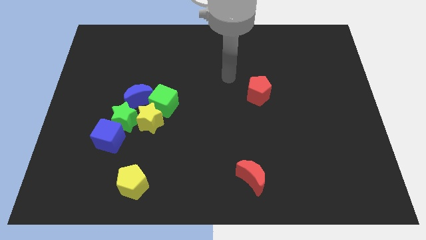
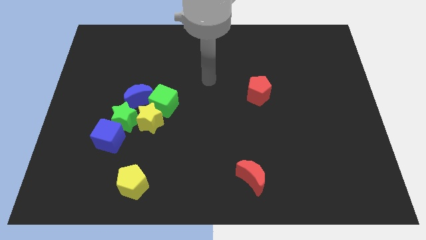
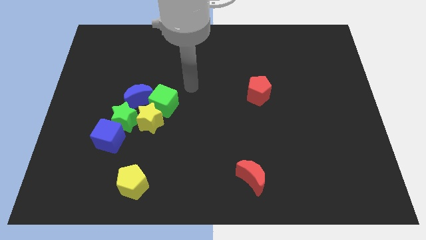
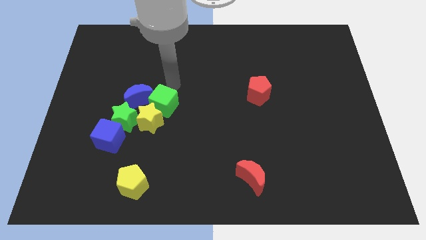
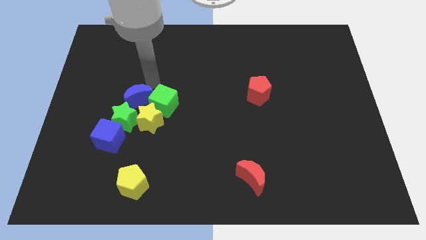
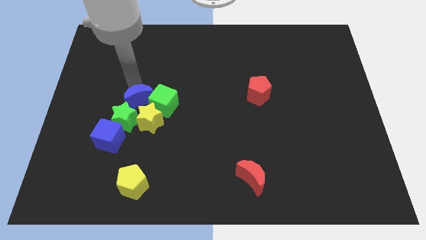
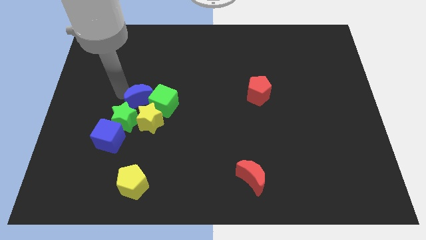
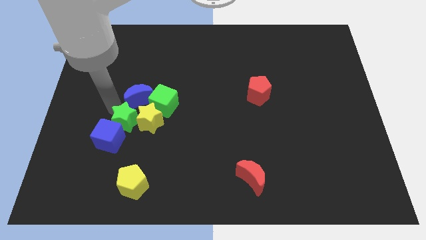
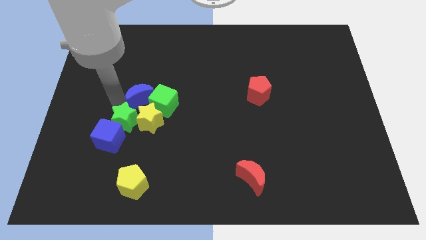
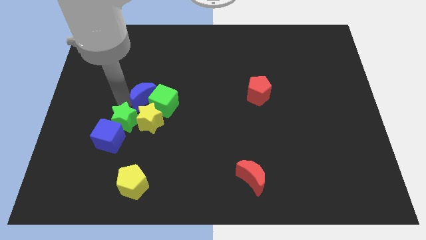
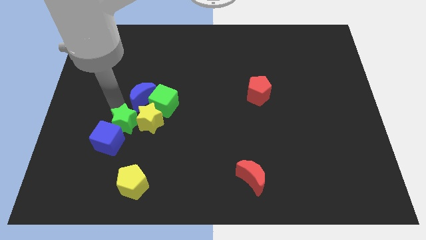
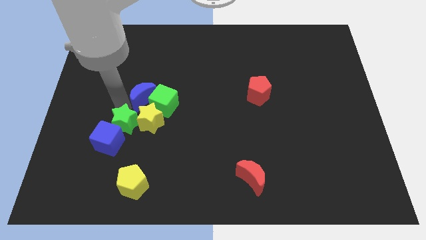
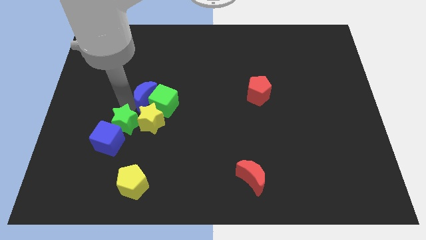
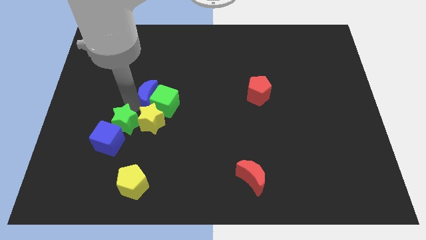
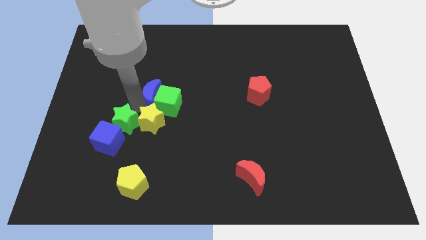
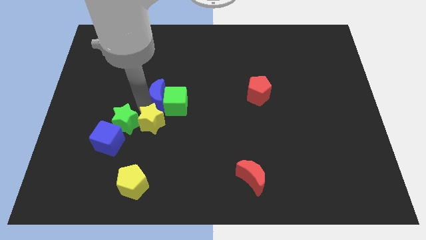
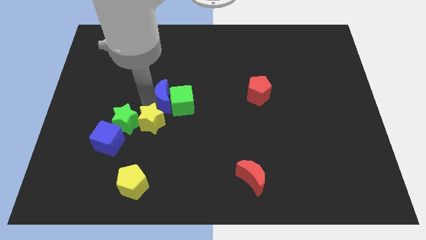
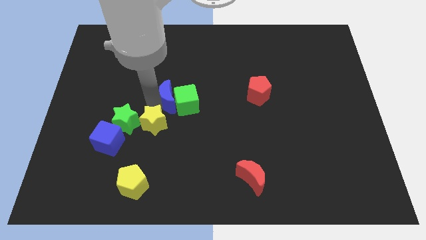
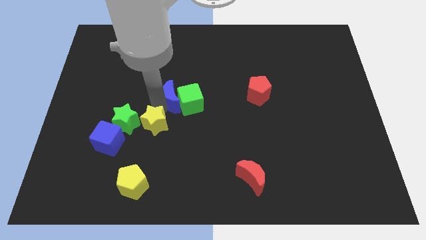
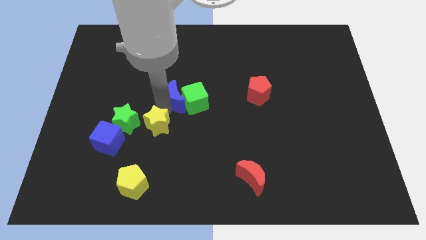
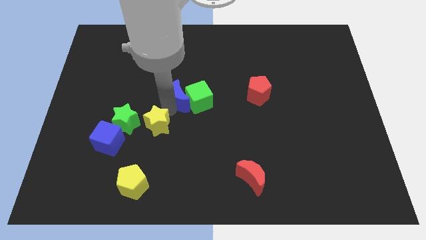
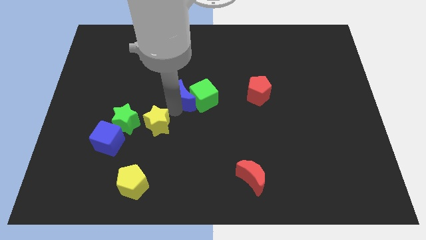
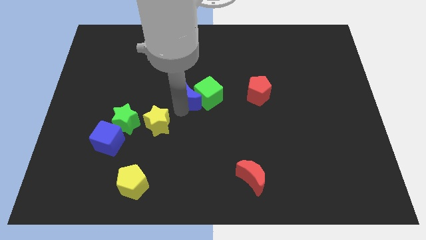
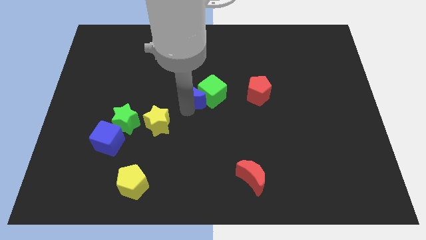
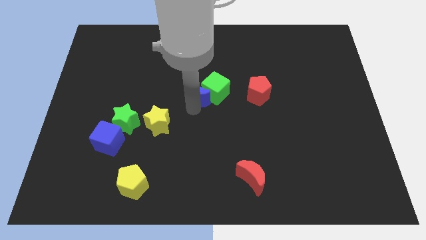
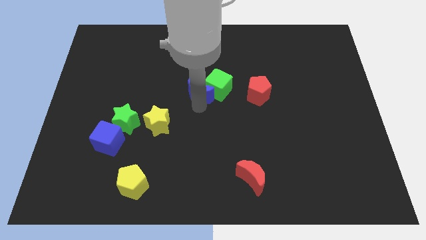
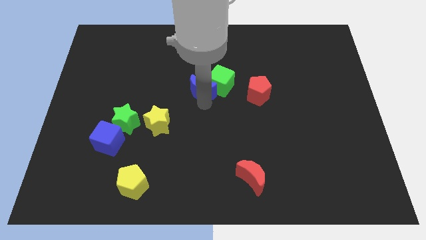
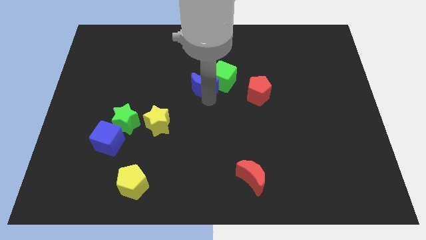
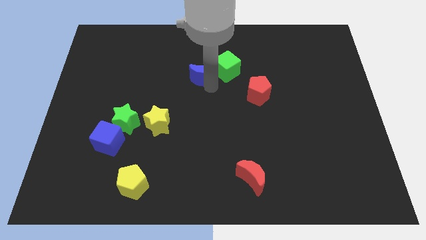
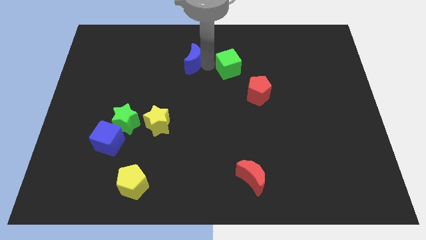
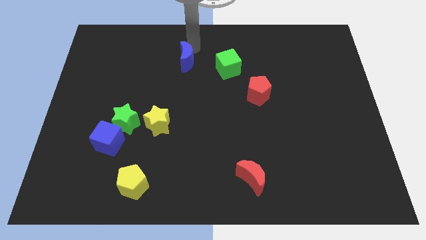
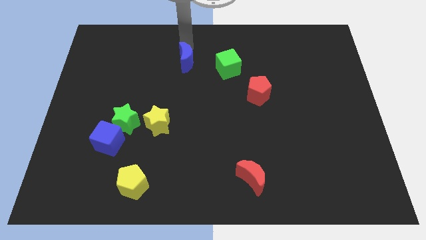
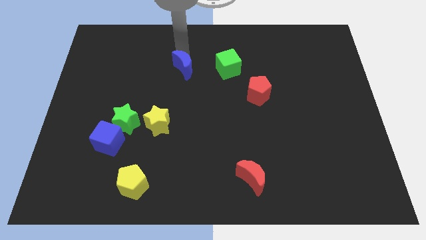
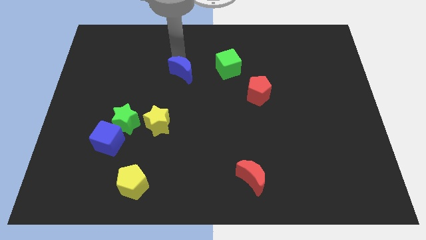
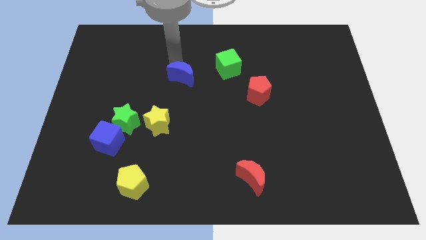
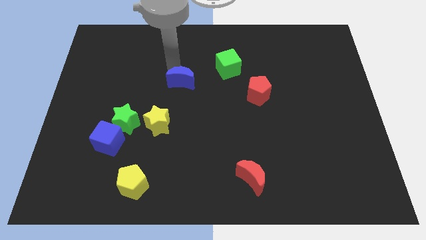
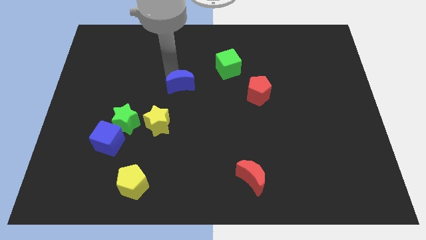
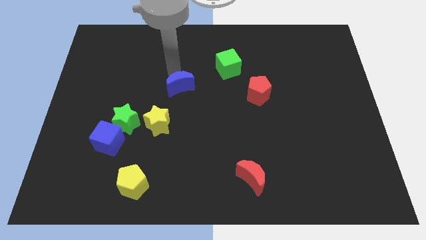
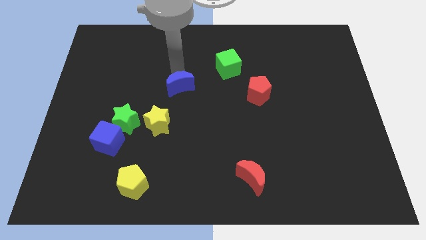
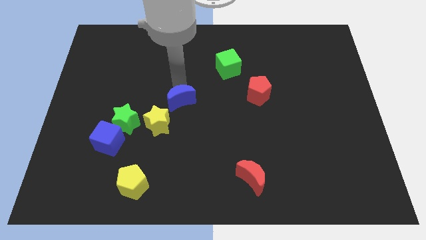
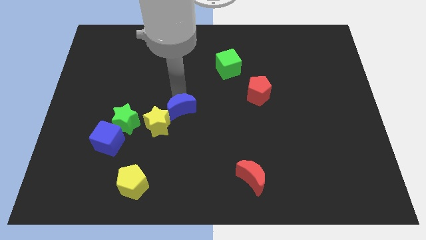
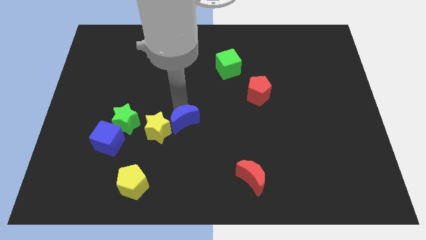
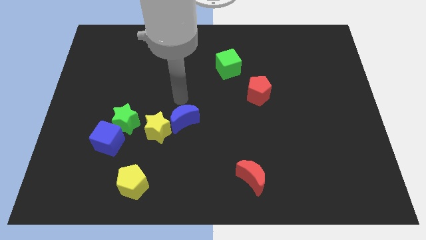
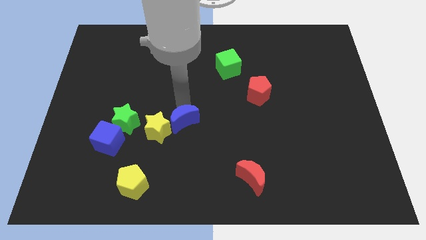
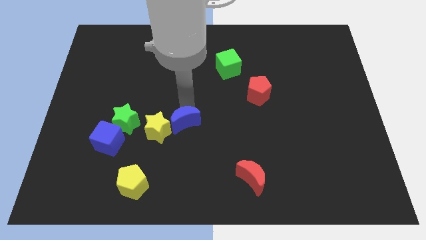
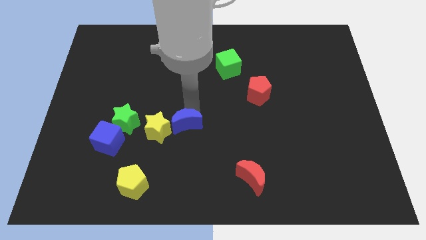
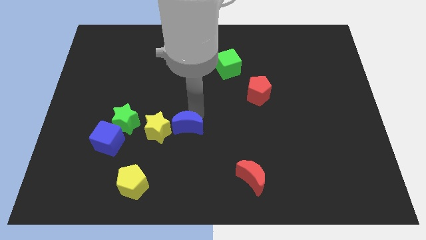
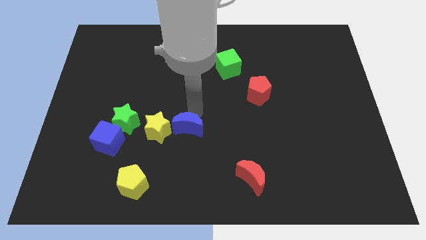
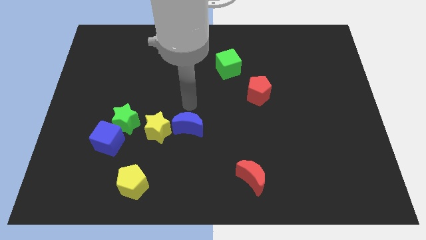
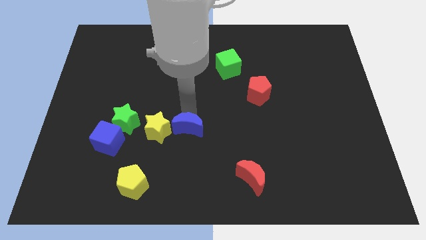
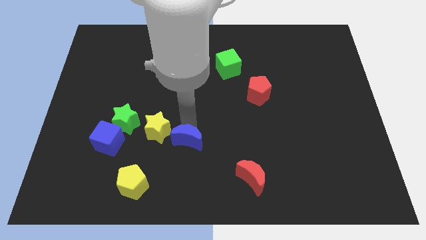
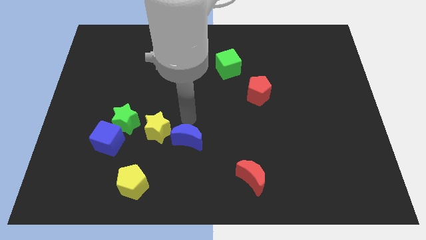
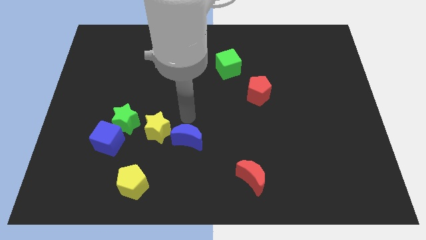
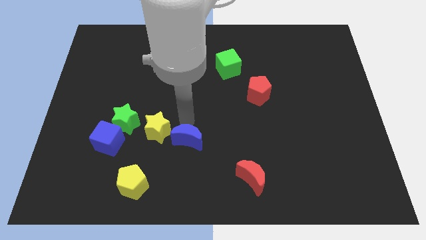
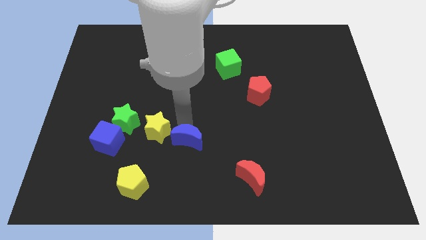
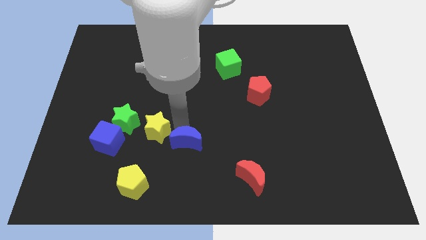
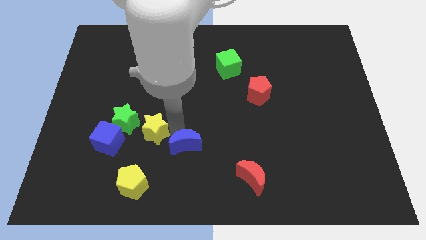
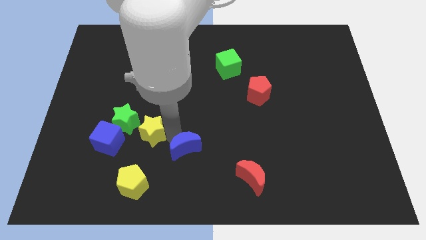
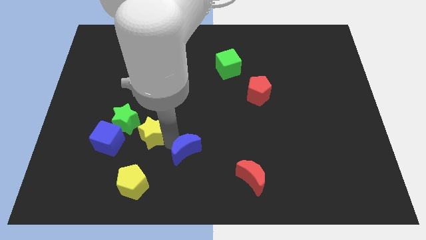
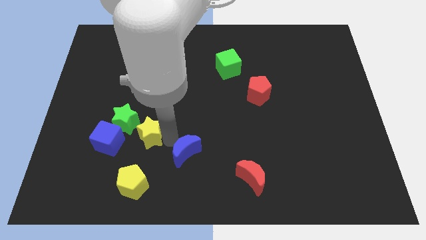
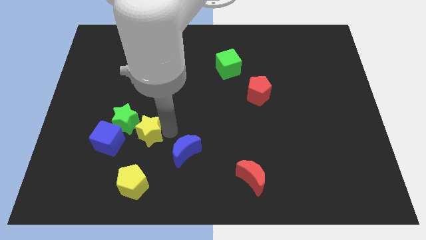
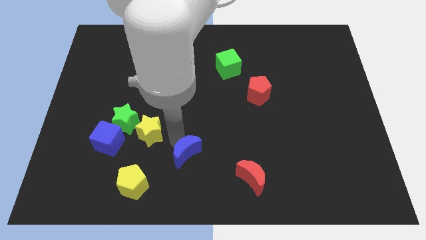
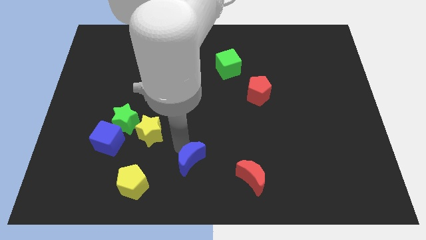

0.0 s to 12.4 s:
push the blue moon to the bottom

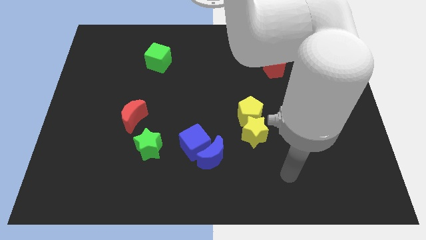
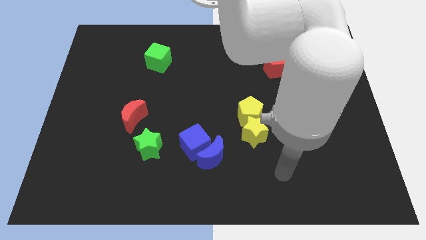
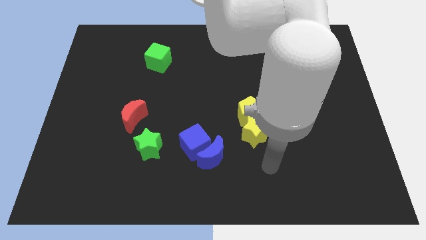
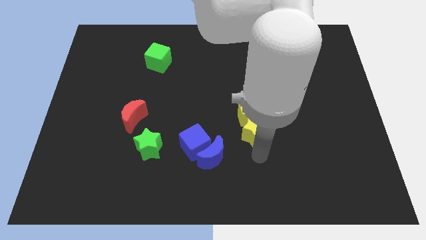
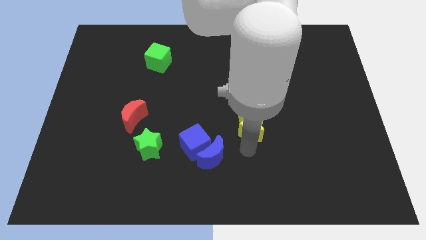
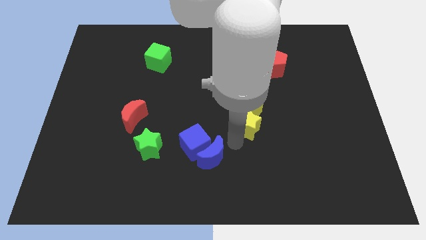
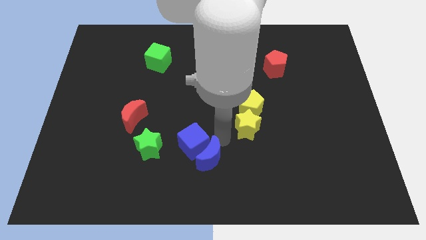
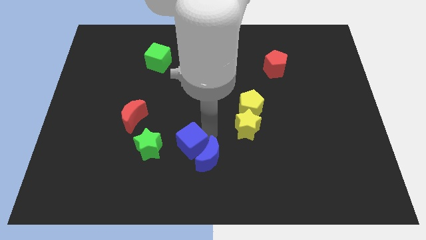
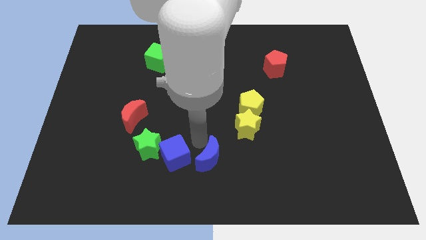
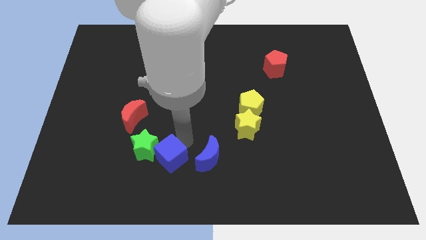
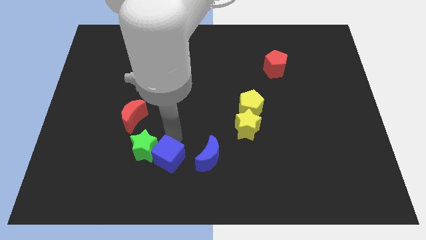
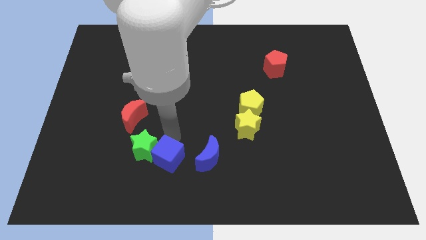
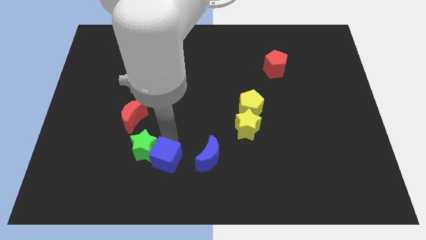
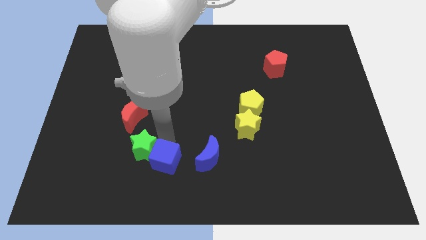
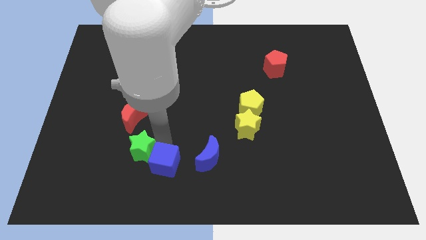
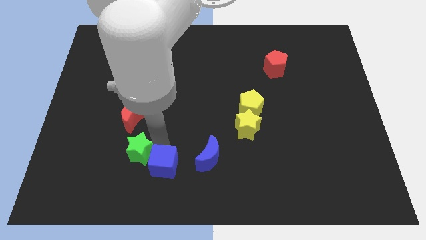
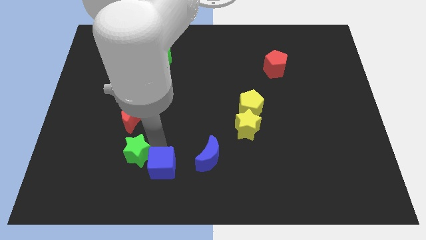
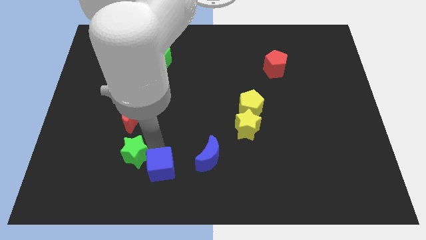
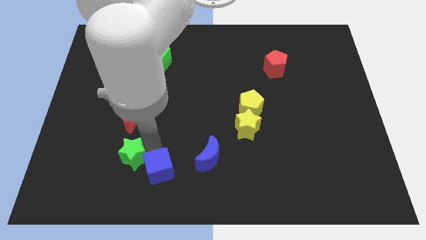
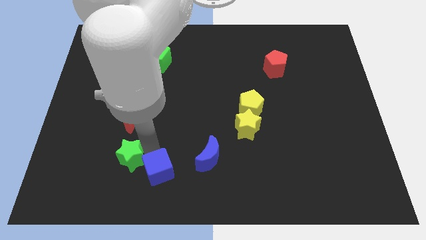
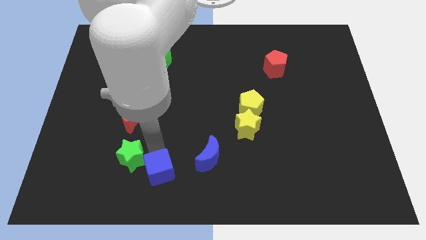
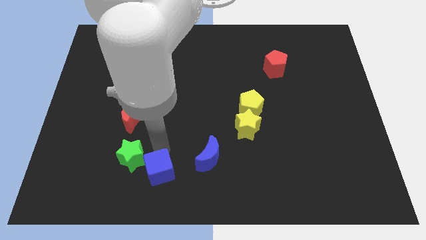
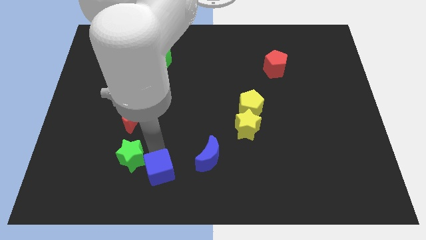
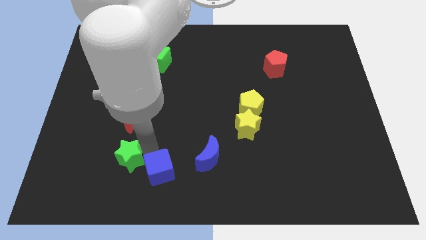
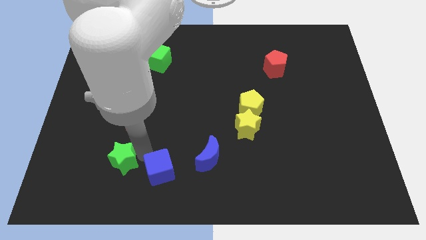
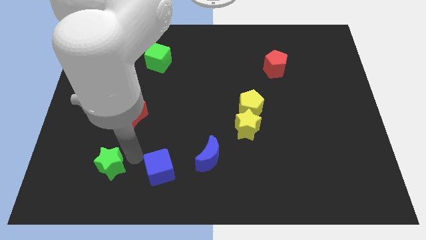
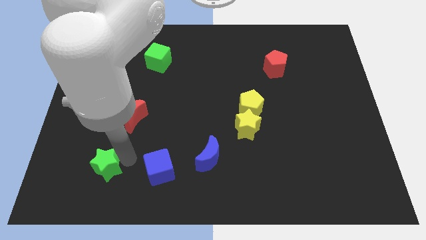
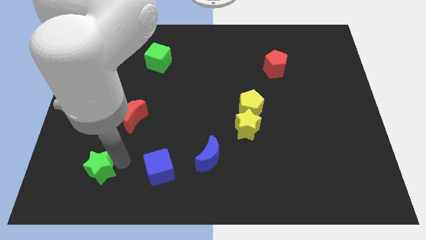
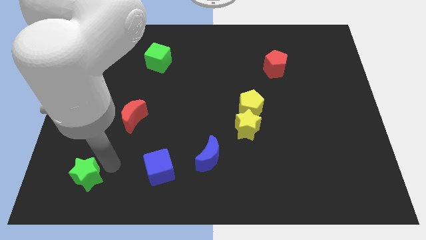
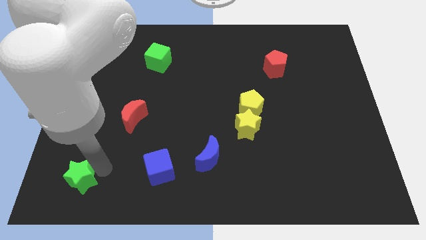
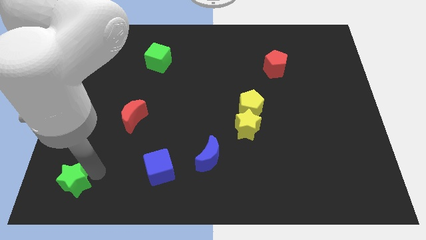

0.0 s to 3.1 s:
move the green star to the bottom left corner
